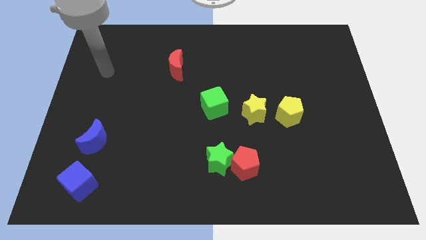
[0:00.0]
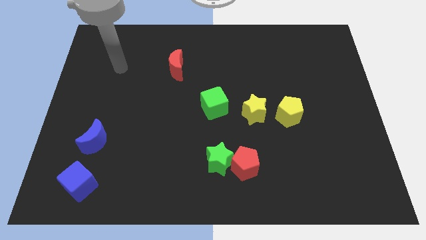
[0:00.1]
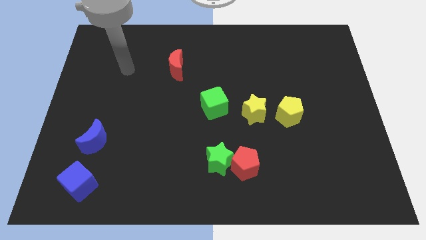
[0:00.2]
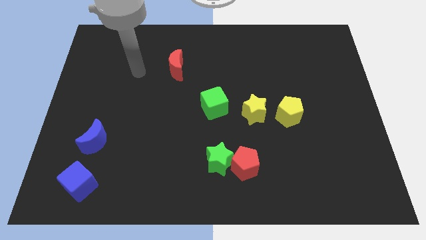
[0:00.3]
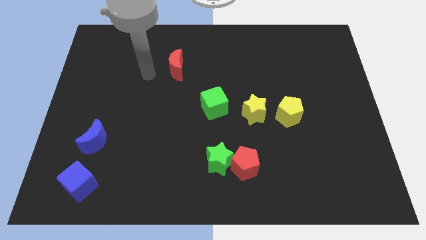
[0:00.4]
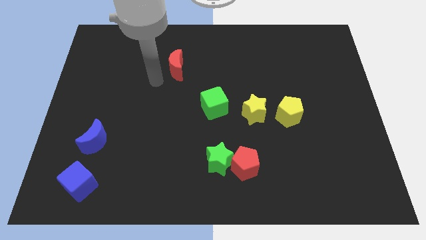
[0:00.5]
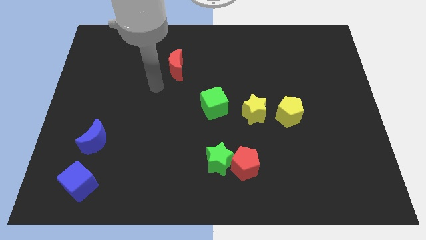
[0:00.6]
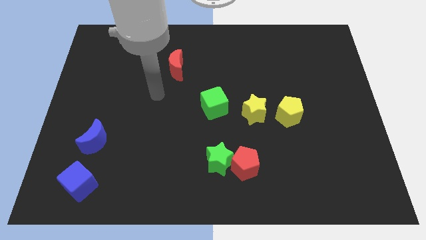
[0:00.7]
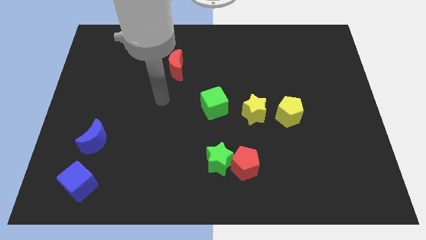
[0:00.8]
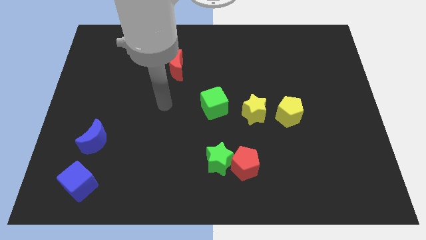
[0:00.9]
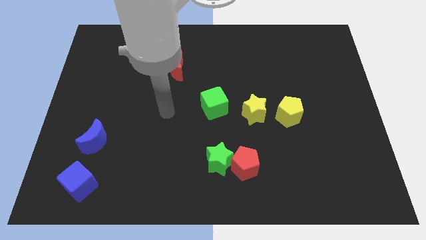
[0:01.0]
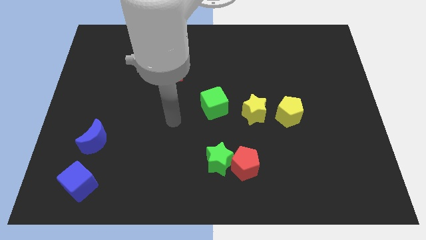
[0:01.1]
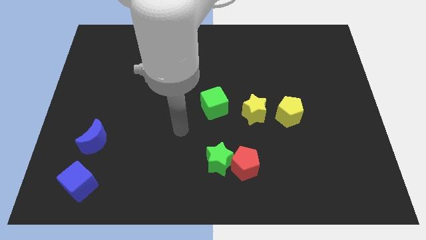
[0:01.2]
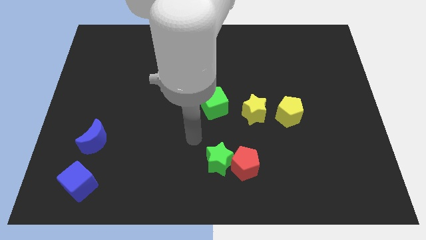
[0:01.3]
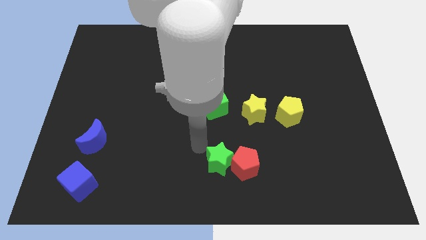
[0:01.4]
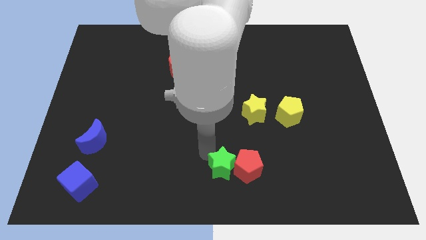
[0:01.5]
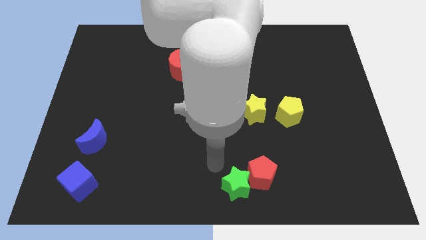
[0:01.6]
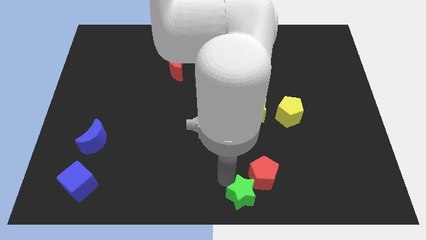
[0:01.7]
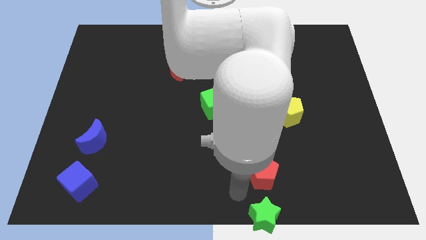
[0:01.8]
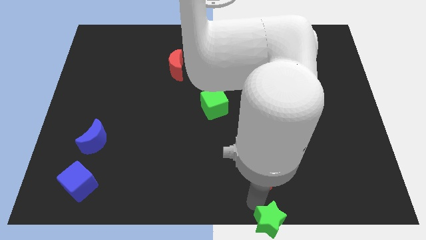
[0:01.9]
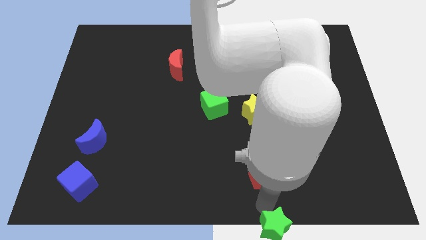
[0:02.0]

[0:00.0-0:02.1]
pull the red pentagon apart from the green star

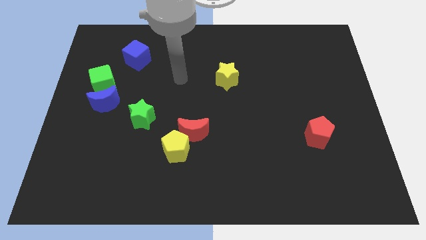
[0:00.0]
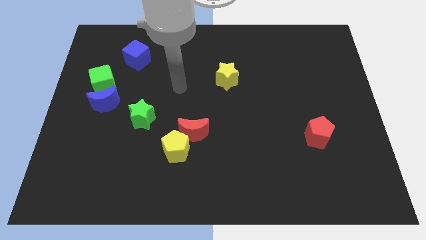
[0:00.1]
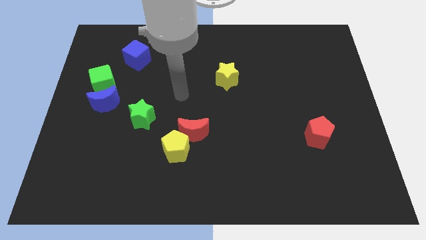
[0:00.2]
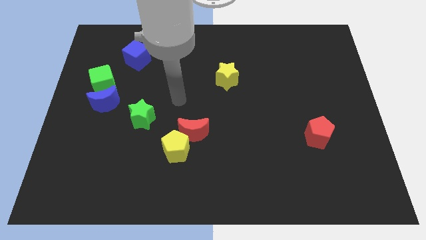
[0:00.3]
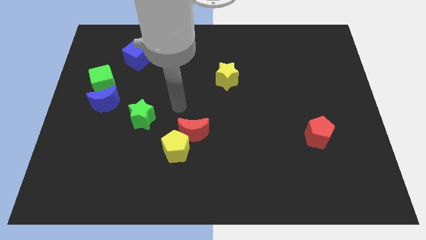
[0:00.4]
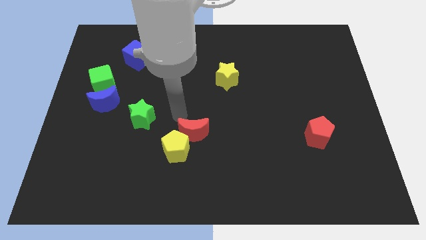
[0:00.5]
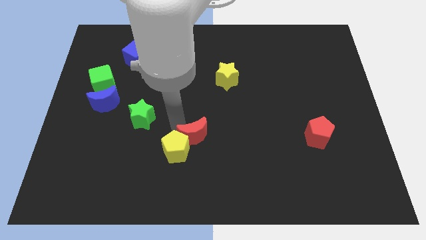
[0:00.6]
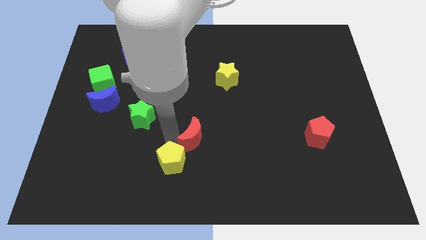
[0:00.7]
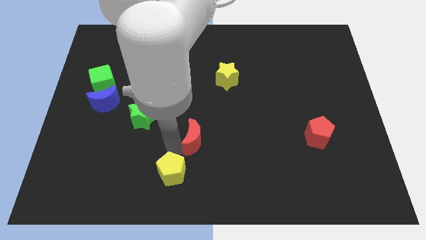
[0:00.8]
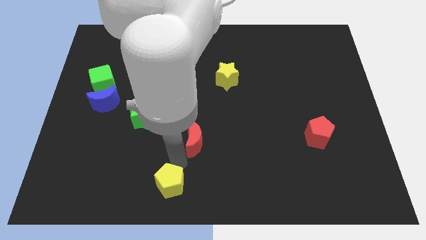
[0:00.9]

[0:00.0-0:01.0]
move the red moon away from the yellow pentagon

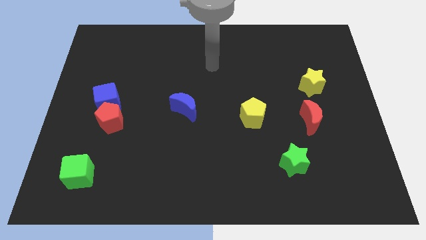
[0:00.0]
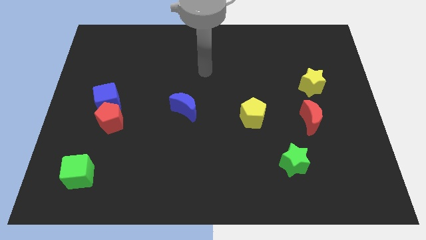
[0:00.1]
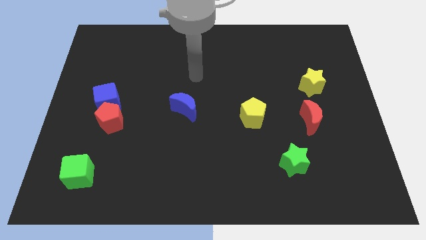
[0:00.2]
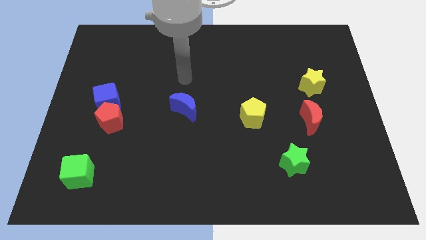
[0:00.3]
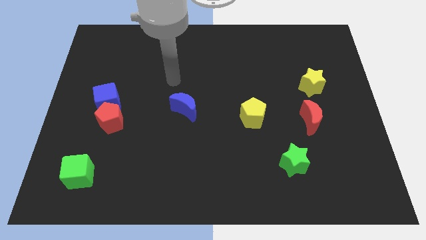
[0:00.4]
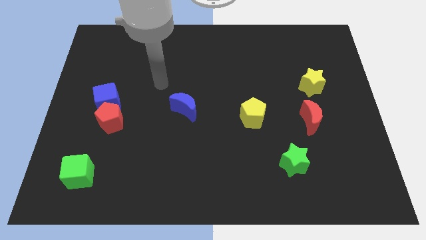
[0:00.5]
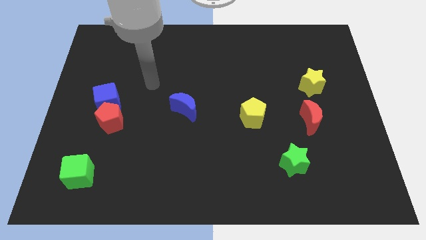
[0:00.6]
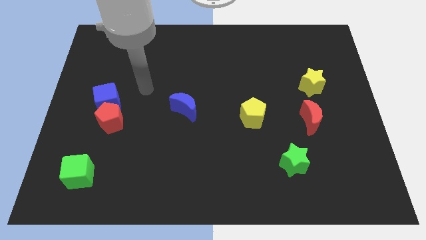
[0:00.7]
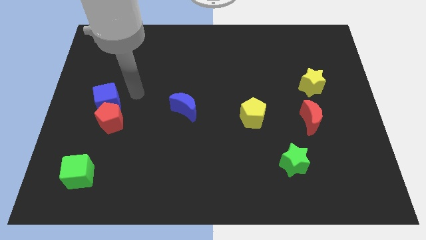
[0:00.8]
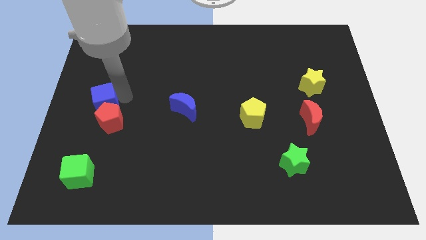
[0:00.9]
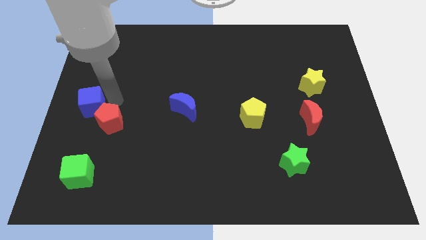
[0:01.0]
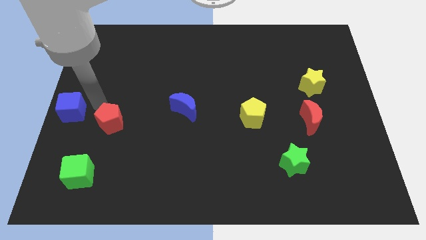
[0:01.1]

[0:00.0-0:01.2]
move the red pentagon away from the blue cube

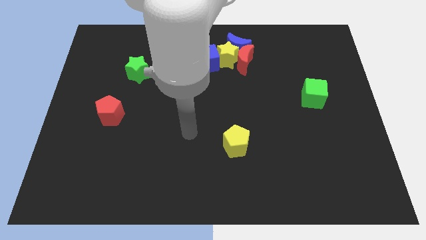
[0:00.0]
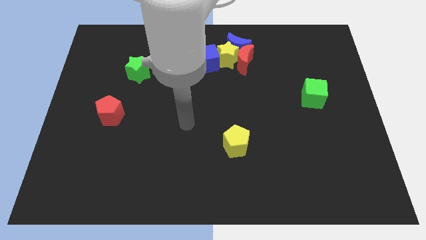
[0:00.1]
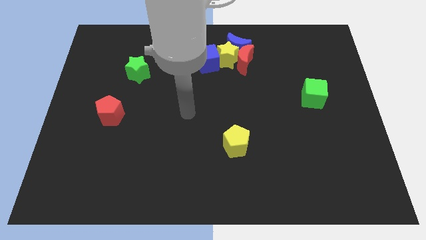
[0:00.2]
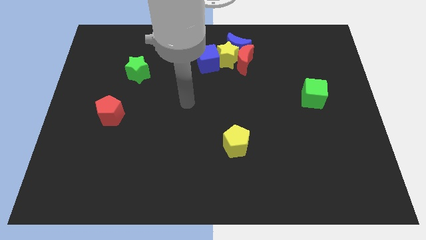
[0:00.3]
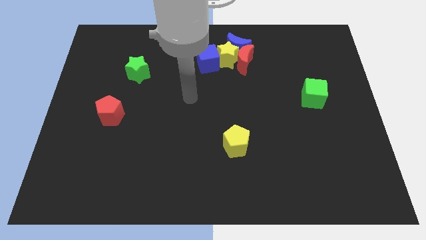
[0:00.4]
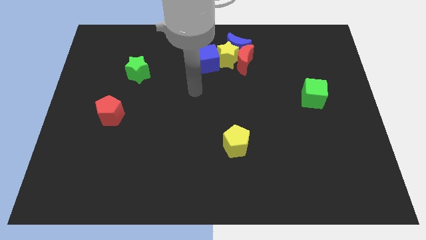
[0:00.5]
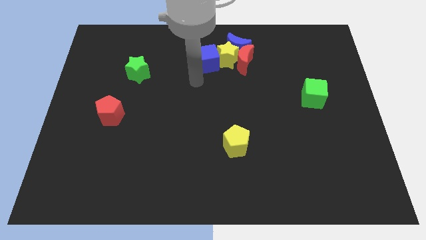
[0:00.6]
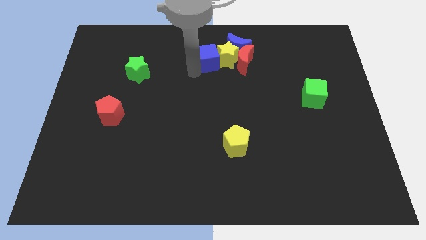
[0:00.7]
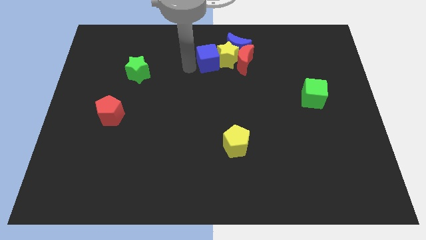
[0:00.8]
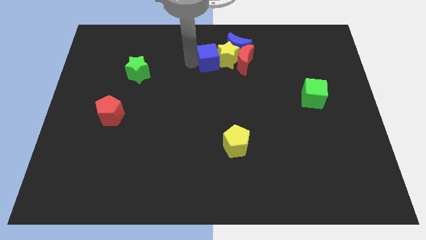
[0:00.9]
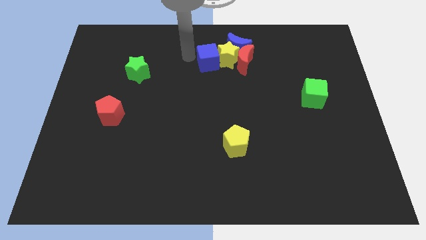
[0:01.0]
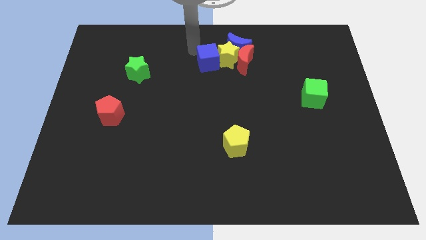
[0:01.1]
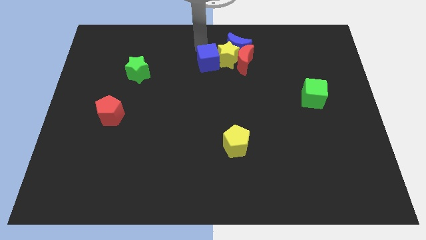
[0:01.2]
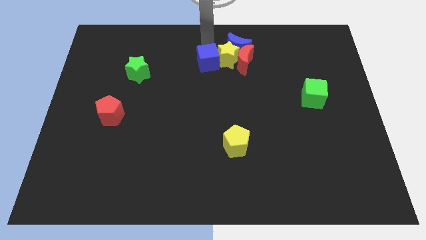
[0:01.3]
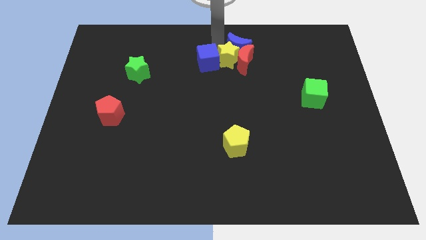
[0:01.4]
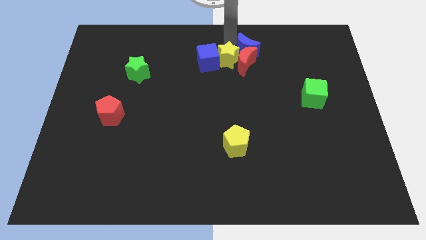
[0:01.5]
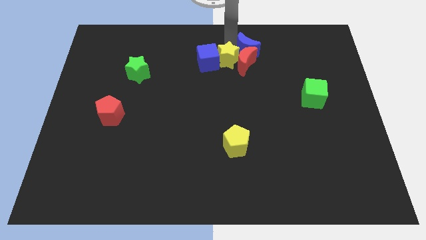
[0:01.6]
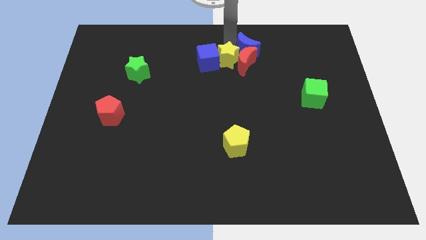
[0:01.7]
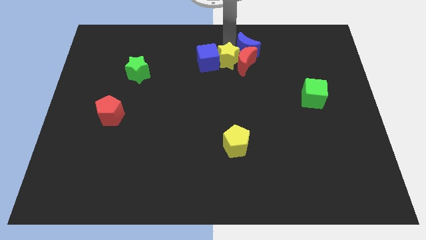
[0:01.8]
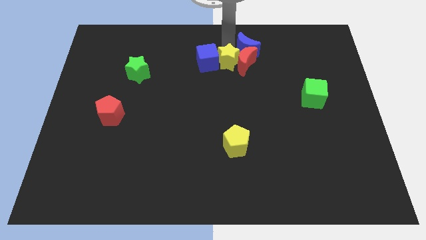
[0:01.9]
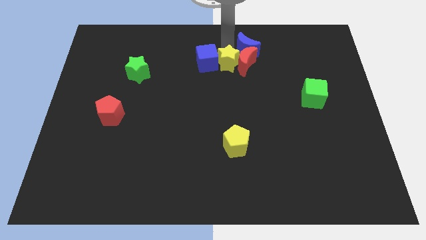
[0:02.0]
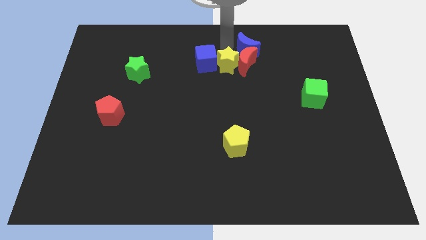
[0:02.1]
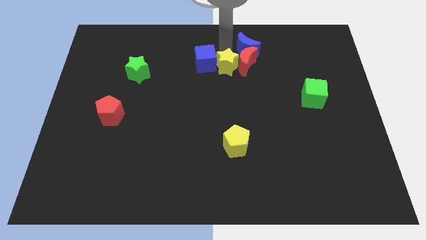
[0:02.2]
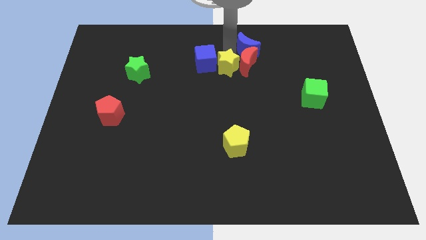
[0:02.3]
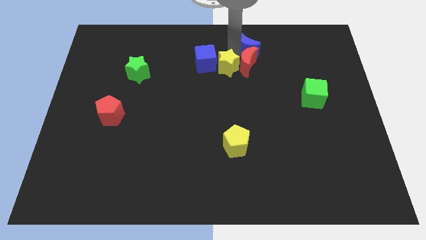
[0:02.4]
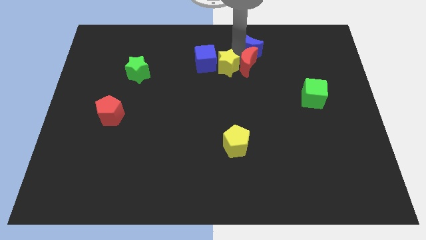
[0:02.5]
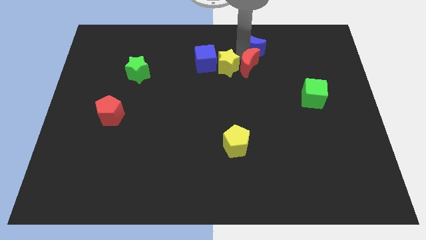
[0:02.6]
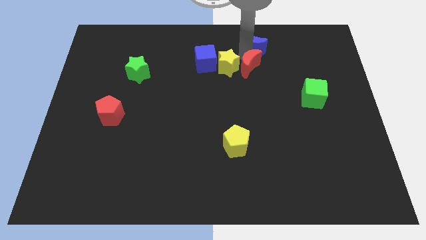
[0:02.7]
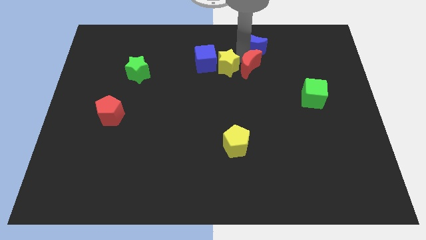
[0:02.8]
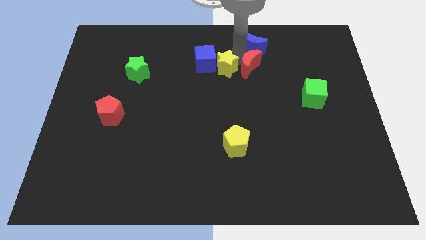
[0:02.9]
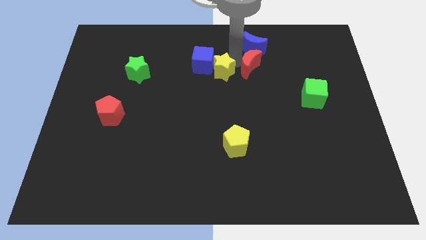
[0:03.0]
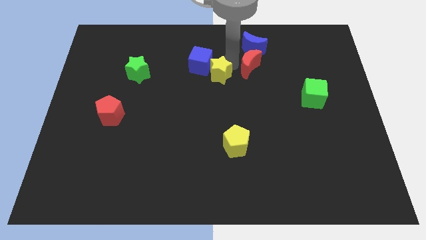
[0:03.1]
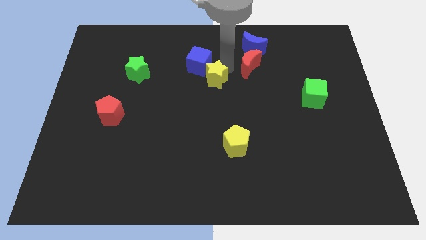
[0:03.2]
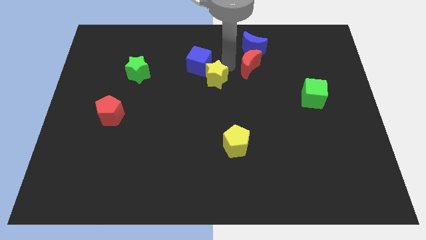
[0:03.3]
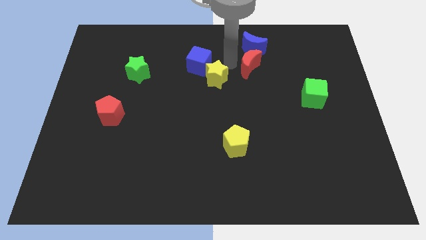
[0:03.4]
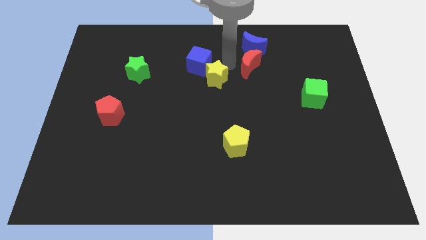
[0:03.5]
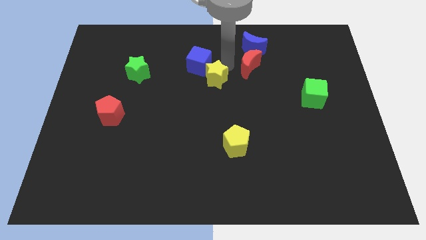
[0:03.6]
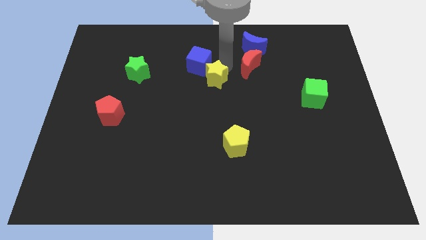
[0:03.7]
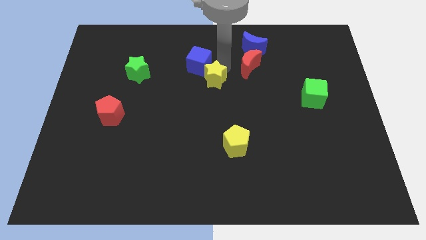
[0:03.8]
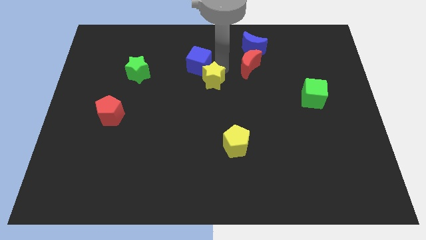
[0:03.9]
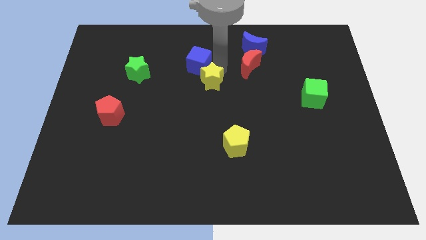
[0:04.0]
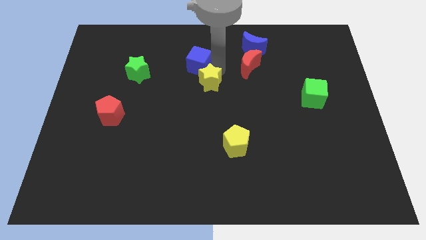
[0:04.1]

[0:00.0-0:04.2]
separate the yellow star from the blue moon, red moon, and blue cube

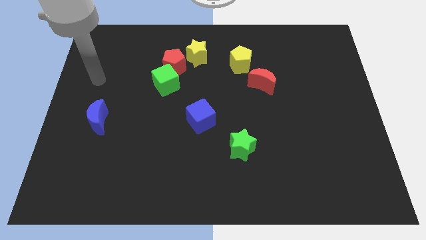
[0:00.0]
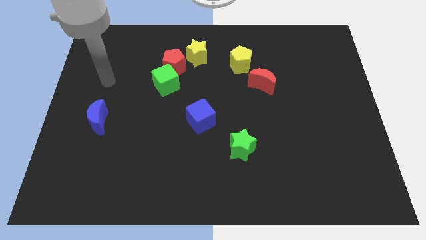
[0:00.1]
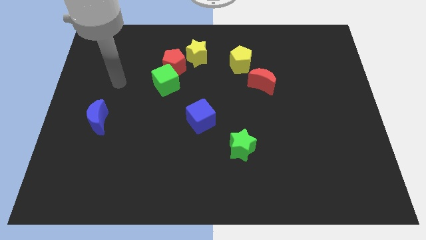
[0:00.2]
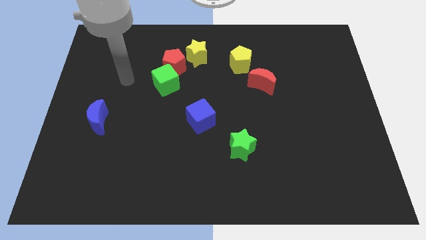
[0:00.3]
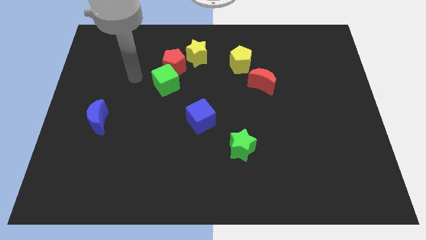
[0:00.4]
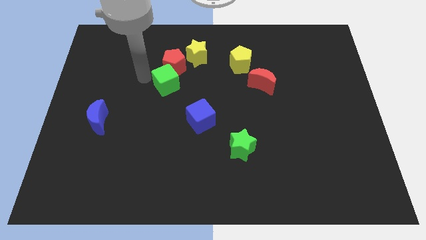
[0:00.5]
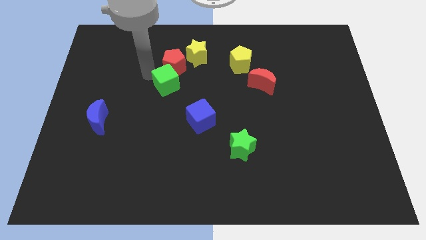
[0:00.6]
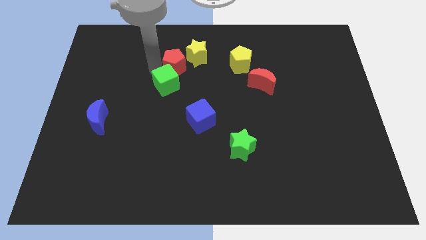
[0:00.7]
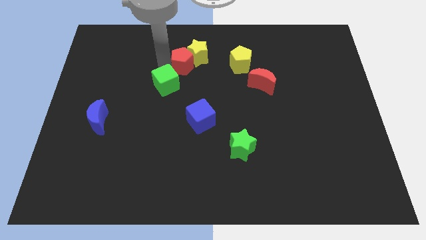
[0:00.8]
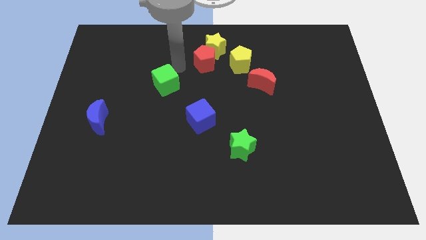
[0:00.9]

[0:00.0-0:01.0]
pull the green cube apart from the red pentagon
